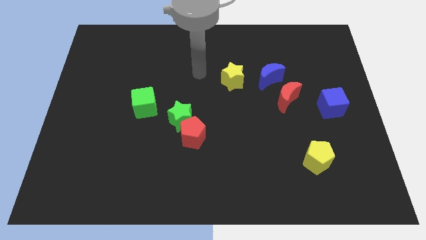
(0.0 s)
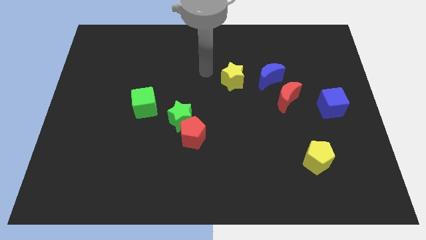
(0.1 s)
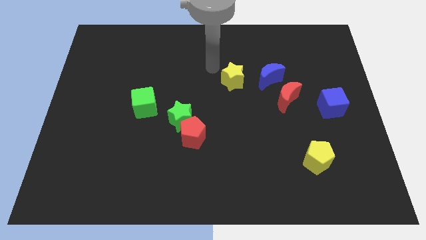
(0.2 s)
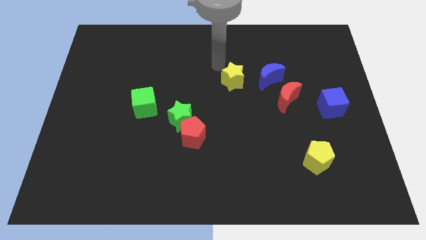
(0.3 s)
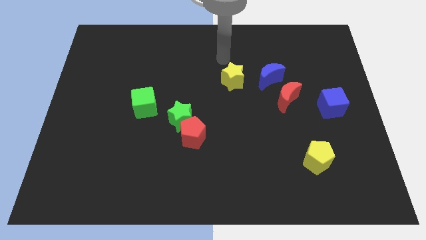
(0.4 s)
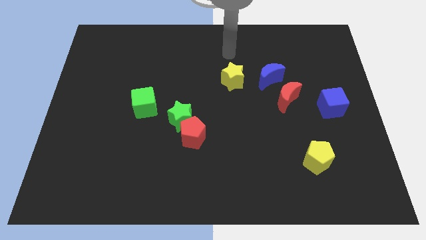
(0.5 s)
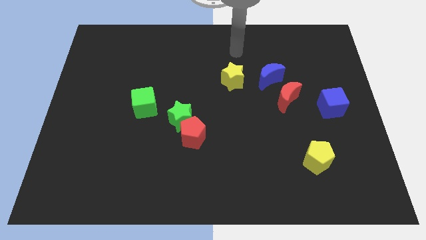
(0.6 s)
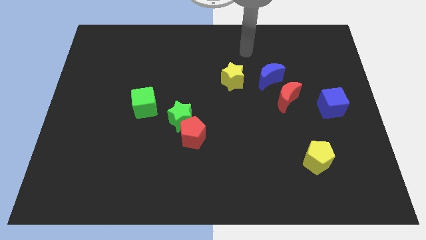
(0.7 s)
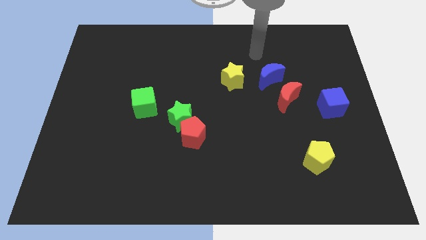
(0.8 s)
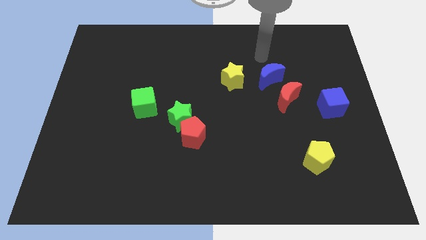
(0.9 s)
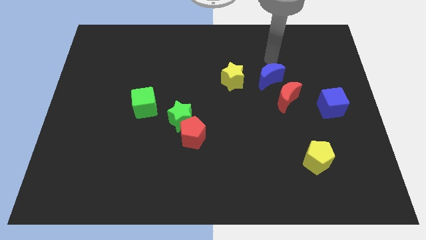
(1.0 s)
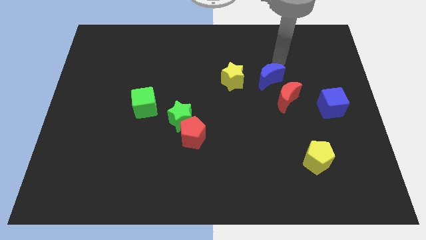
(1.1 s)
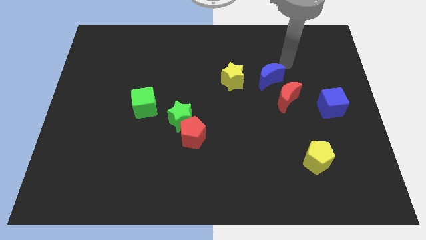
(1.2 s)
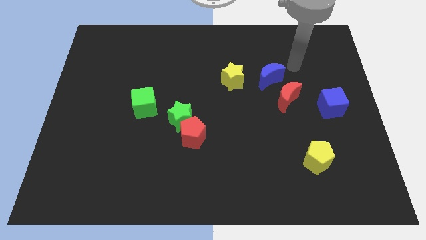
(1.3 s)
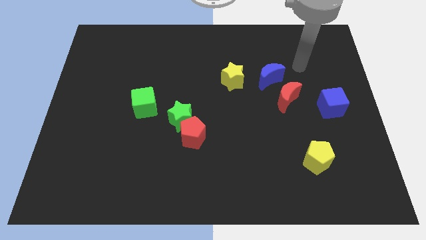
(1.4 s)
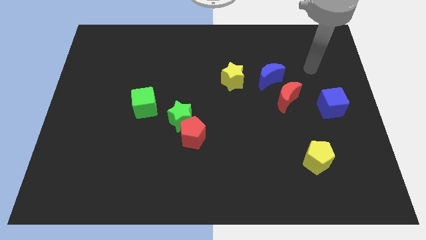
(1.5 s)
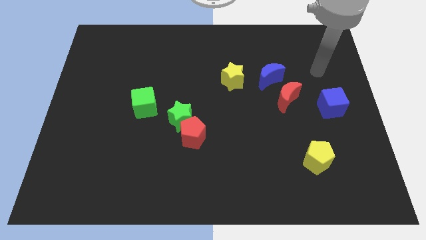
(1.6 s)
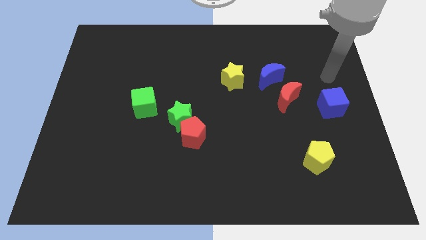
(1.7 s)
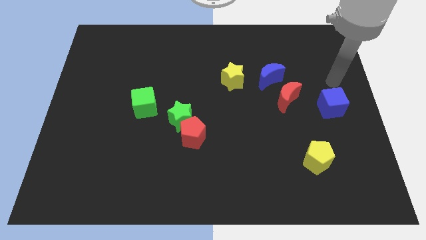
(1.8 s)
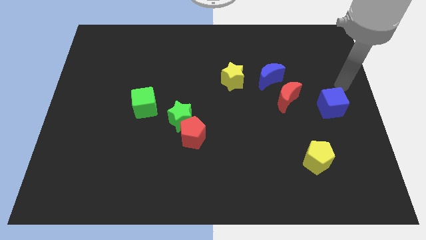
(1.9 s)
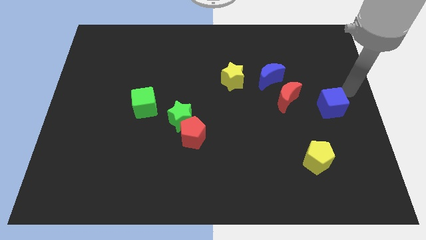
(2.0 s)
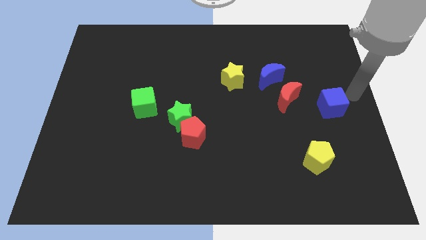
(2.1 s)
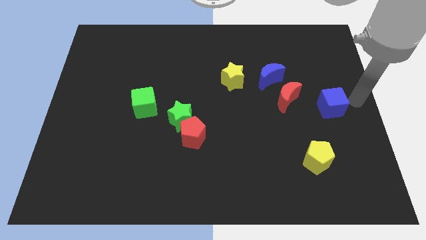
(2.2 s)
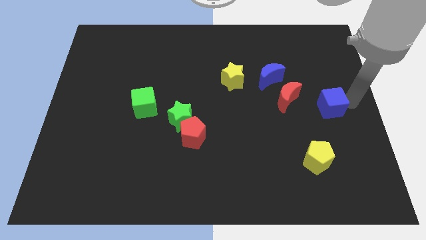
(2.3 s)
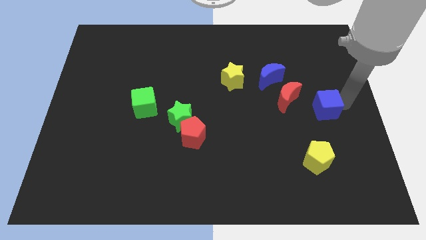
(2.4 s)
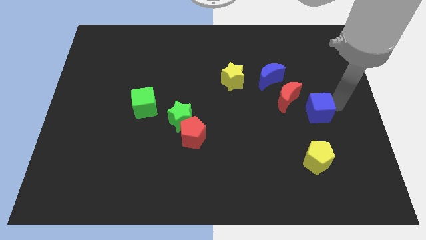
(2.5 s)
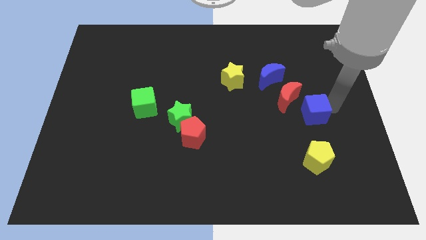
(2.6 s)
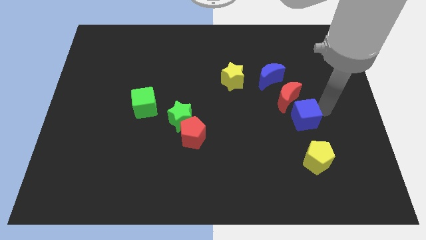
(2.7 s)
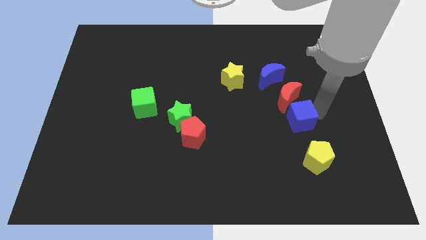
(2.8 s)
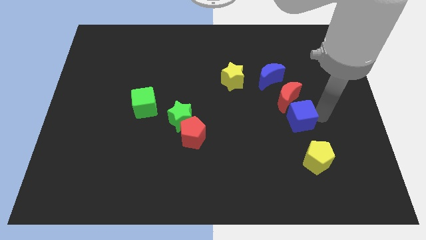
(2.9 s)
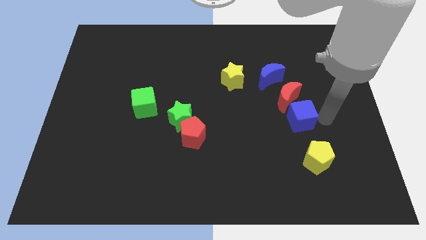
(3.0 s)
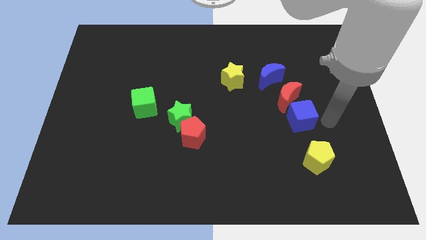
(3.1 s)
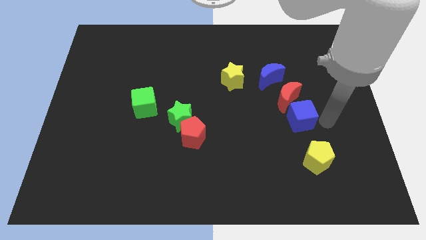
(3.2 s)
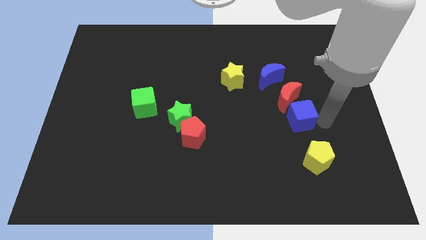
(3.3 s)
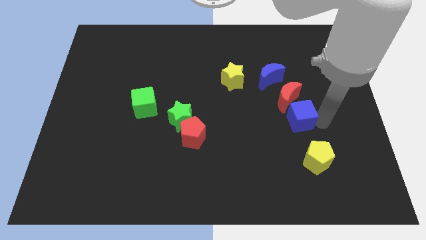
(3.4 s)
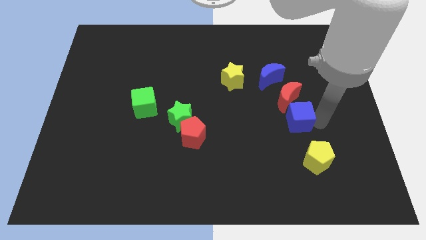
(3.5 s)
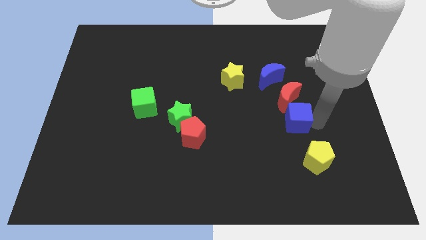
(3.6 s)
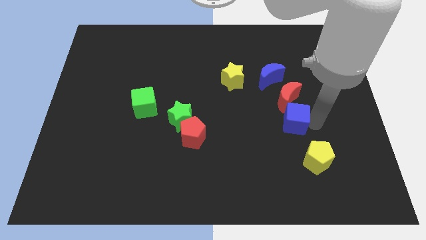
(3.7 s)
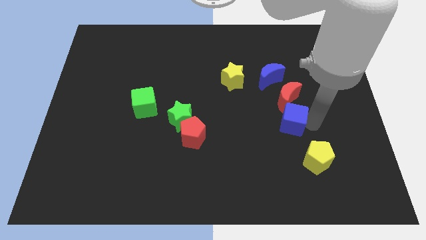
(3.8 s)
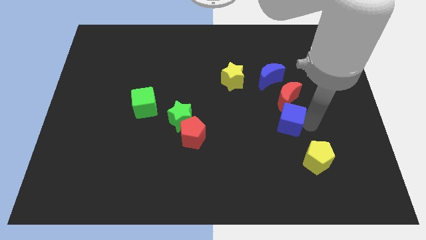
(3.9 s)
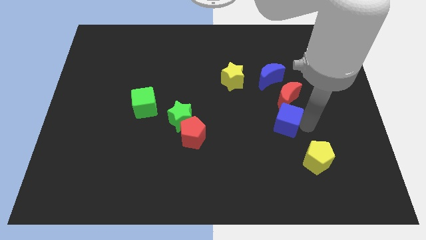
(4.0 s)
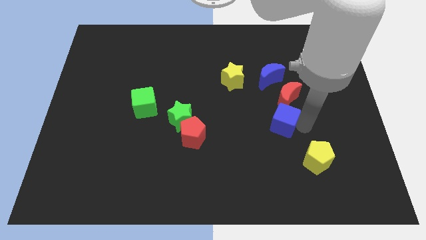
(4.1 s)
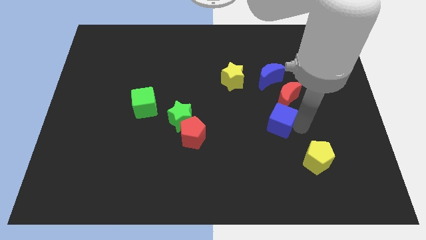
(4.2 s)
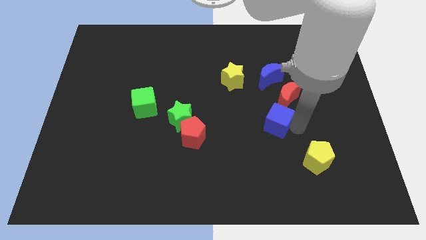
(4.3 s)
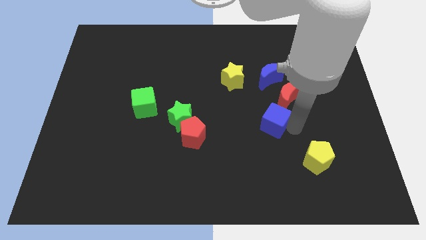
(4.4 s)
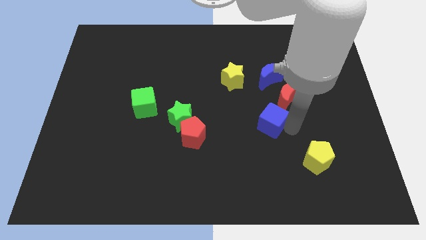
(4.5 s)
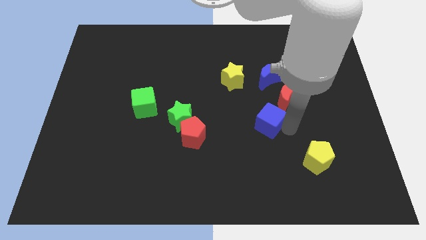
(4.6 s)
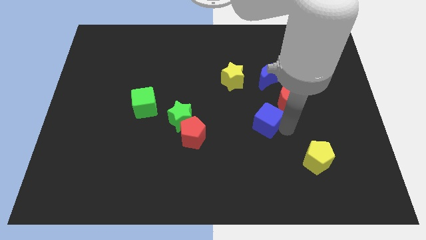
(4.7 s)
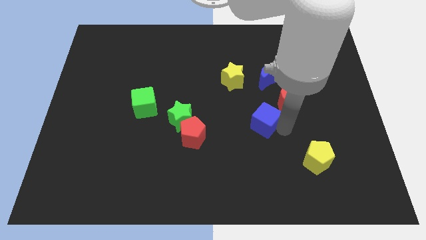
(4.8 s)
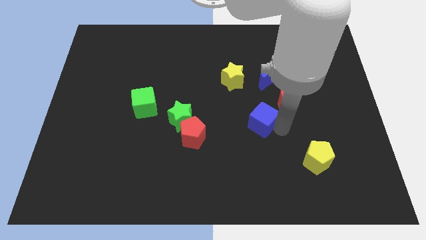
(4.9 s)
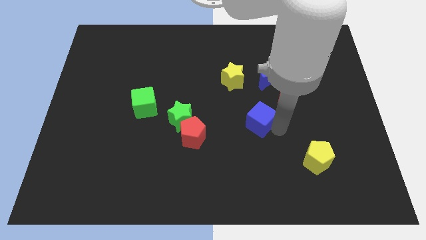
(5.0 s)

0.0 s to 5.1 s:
put the blue cube to the center of the board

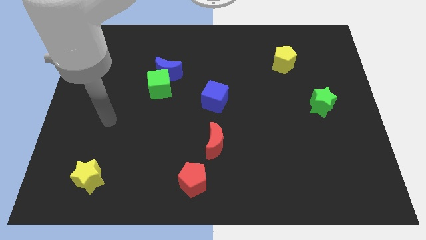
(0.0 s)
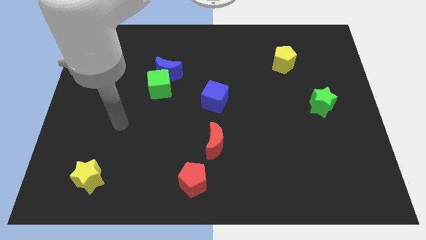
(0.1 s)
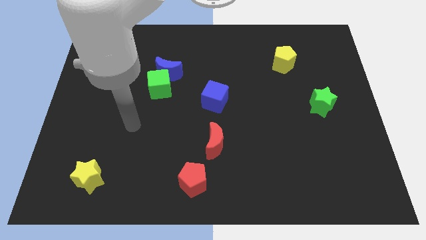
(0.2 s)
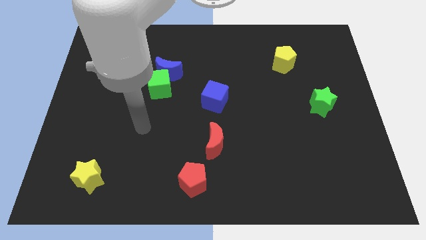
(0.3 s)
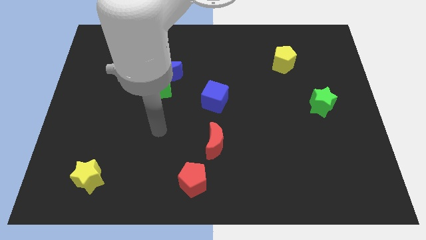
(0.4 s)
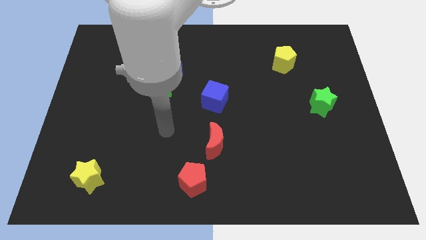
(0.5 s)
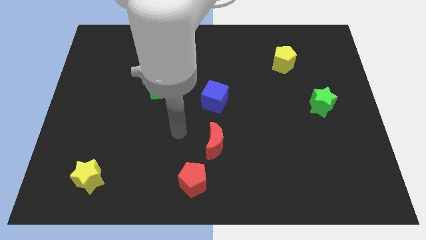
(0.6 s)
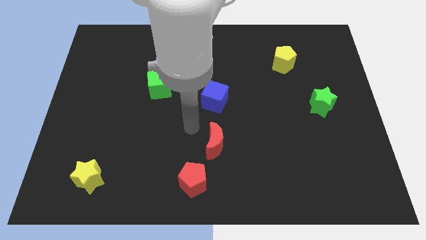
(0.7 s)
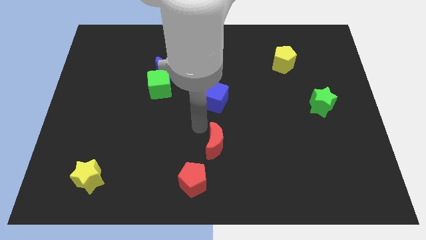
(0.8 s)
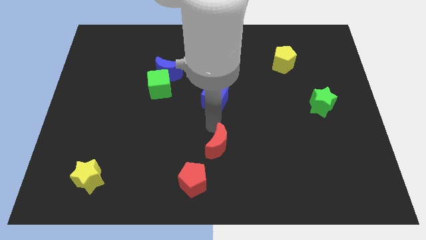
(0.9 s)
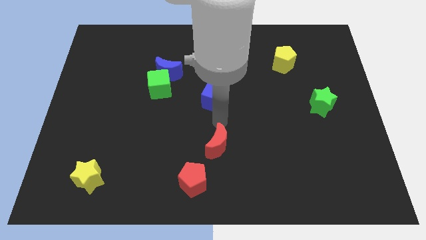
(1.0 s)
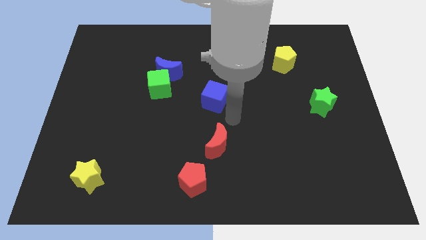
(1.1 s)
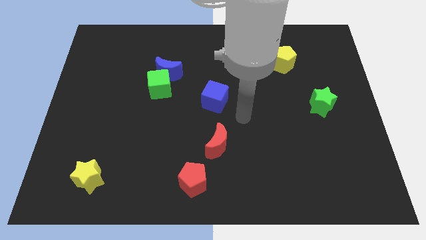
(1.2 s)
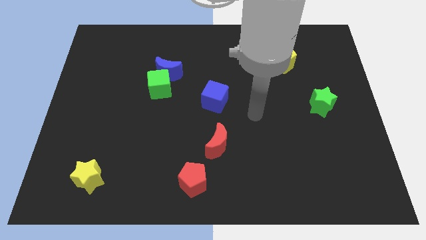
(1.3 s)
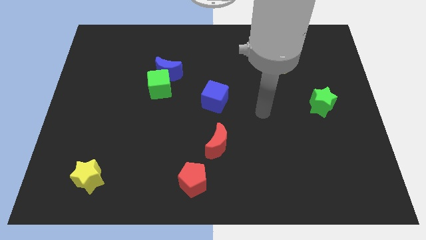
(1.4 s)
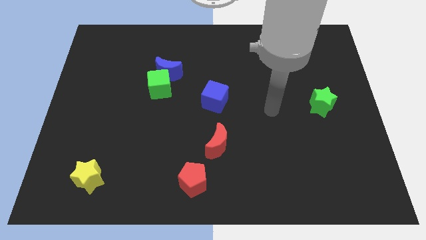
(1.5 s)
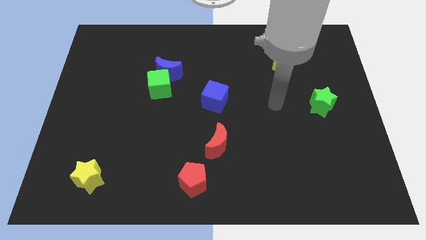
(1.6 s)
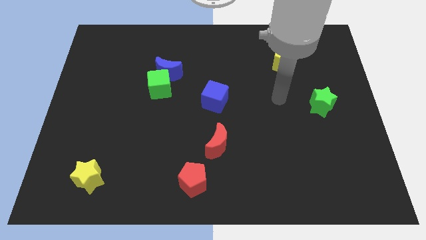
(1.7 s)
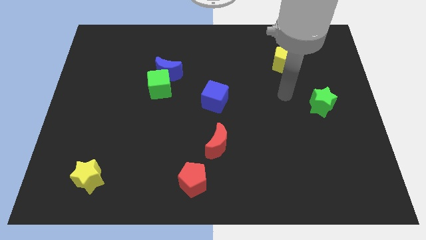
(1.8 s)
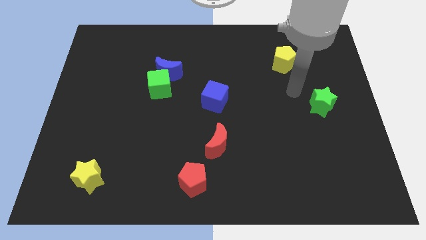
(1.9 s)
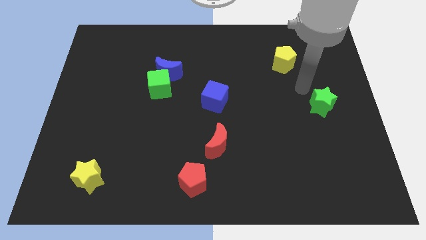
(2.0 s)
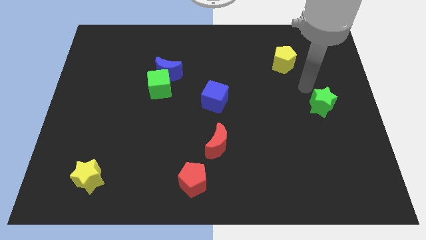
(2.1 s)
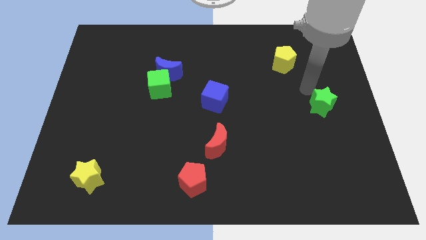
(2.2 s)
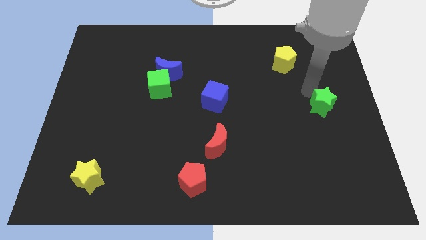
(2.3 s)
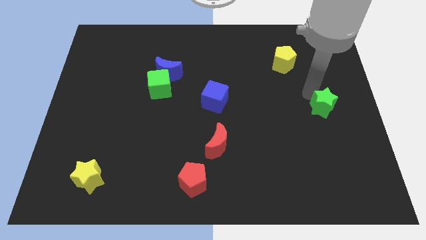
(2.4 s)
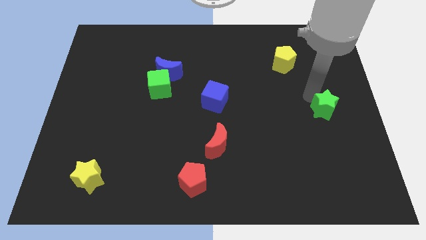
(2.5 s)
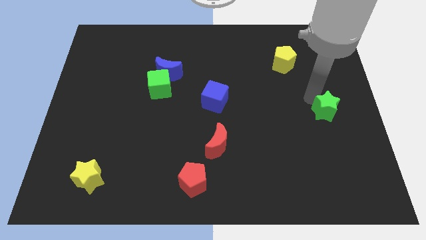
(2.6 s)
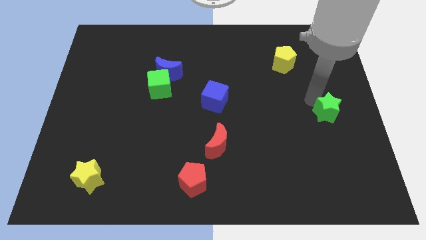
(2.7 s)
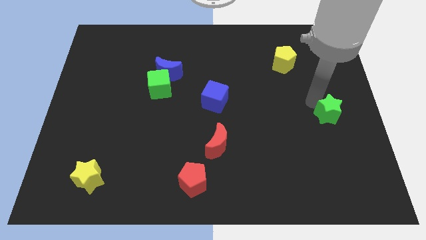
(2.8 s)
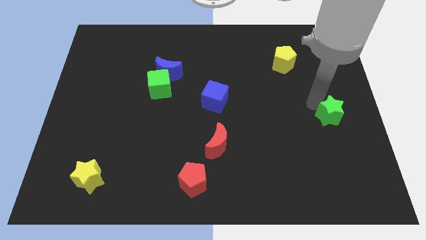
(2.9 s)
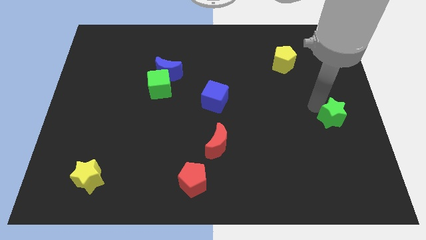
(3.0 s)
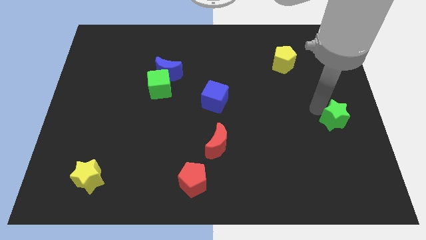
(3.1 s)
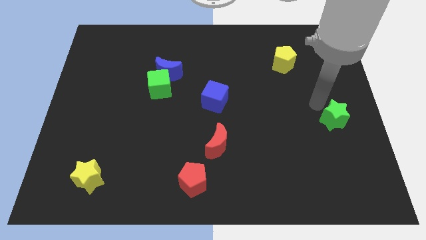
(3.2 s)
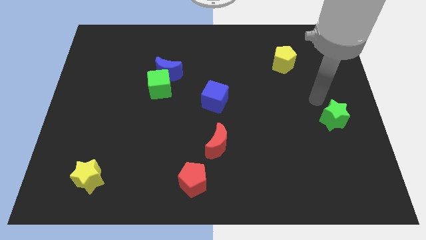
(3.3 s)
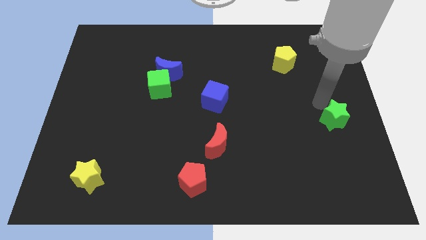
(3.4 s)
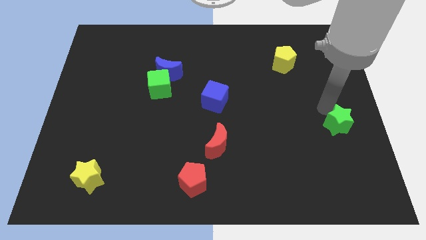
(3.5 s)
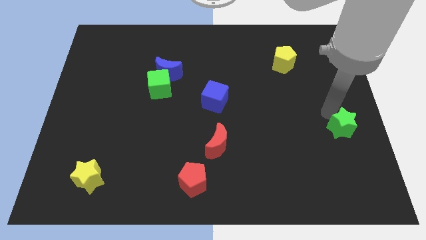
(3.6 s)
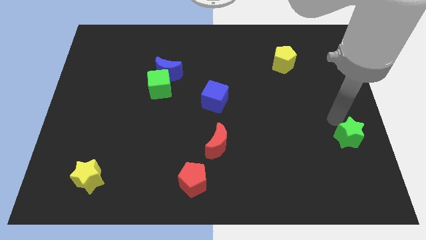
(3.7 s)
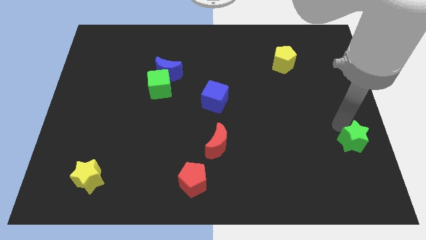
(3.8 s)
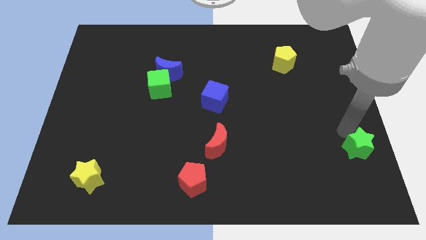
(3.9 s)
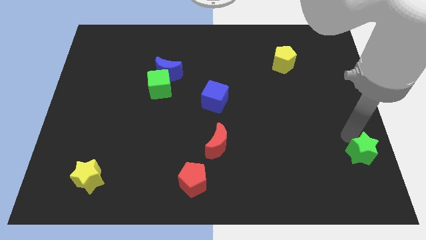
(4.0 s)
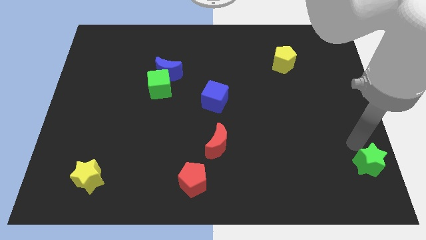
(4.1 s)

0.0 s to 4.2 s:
push the green star to the bottom right of the board
